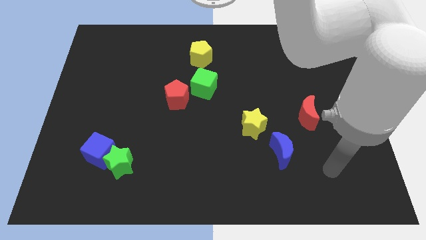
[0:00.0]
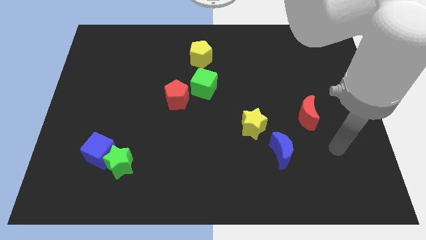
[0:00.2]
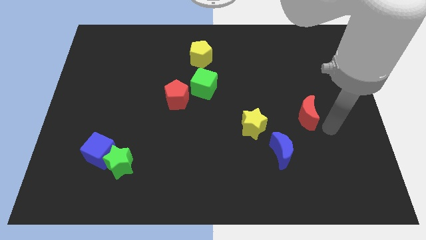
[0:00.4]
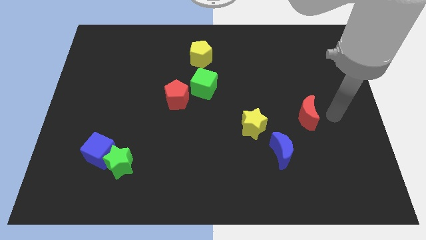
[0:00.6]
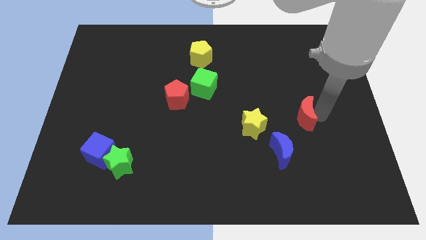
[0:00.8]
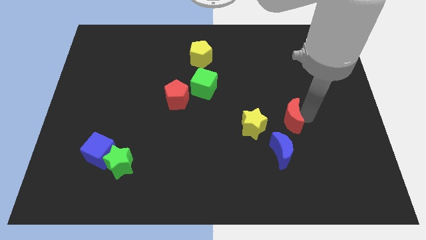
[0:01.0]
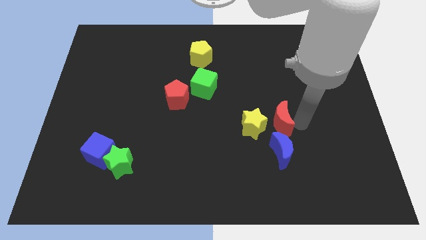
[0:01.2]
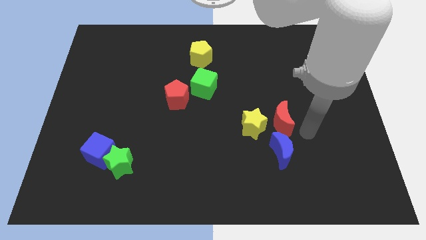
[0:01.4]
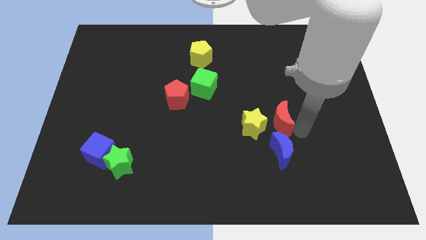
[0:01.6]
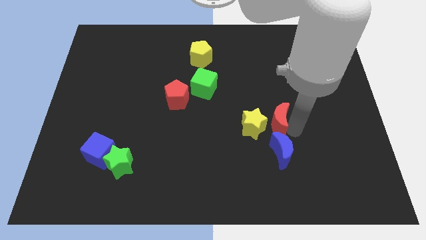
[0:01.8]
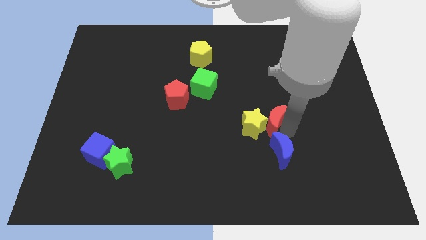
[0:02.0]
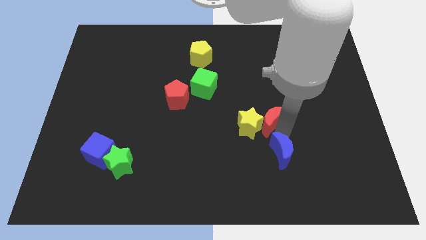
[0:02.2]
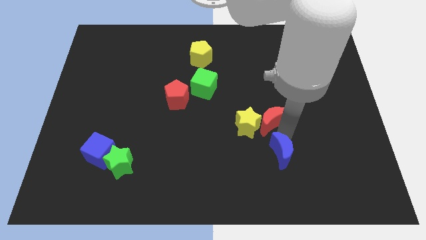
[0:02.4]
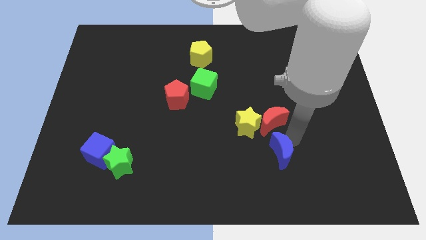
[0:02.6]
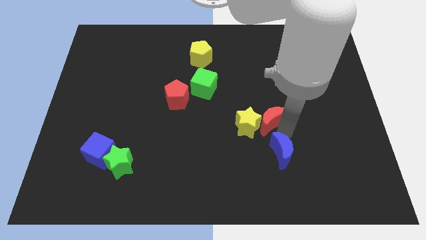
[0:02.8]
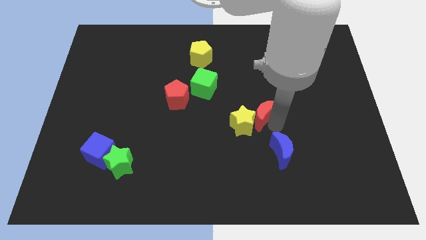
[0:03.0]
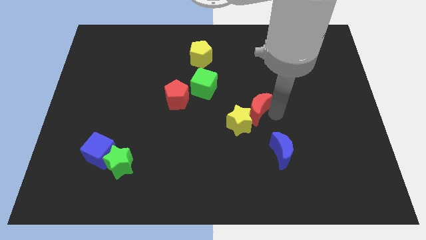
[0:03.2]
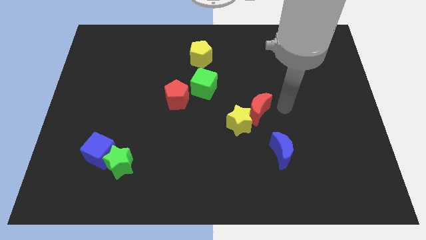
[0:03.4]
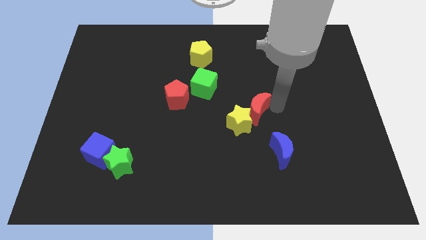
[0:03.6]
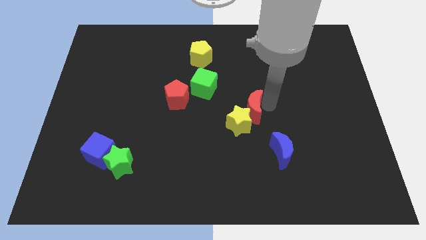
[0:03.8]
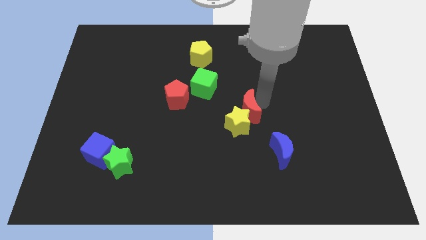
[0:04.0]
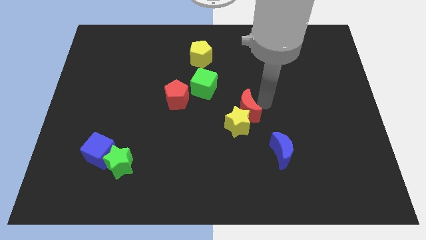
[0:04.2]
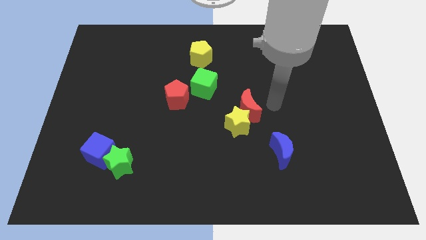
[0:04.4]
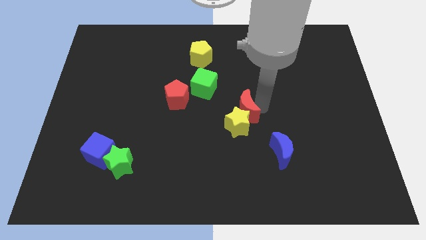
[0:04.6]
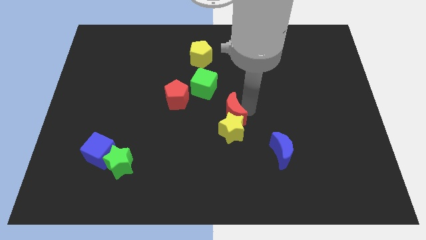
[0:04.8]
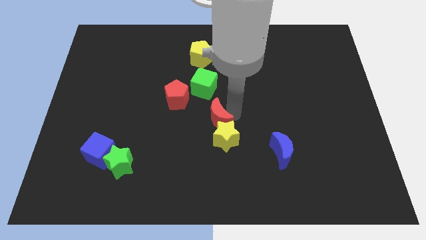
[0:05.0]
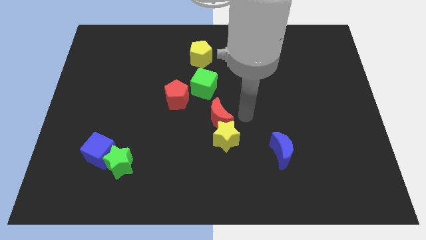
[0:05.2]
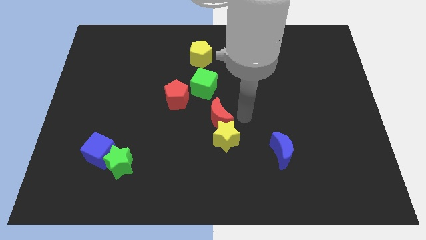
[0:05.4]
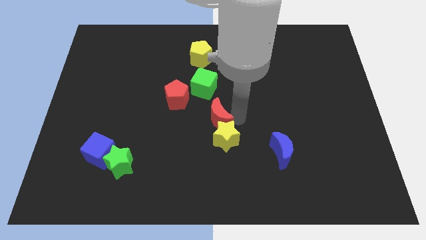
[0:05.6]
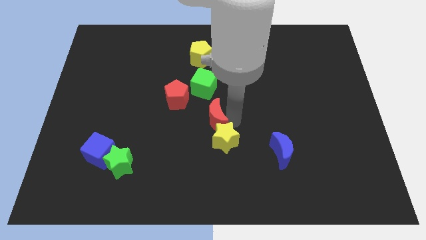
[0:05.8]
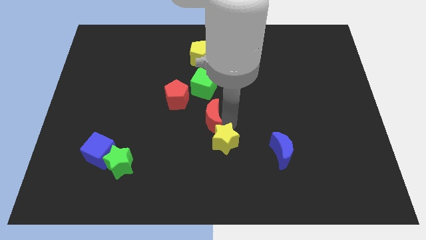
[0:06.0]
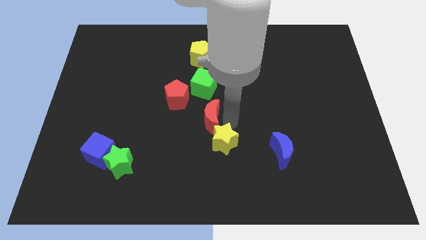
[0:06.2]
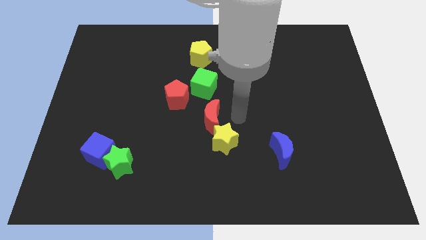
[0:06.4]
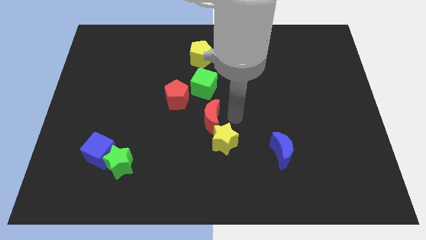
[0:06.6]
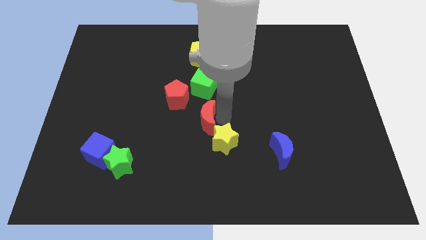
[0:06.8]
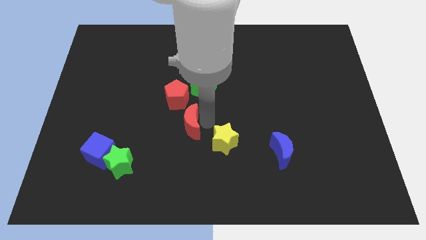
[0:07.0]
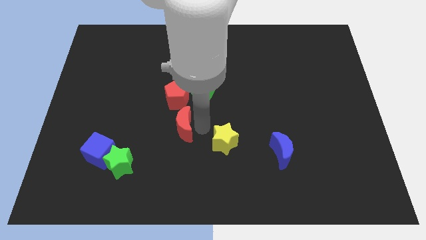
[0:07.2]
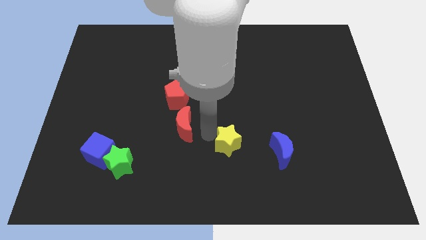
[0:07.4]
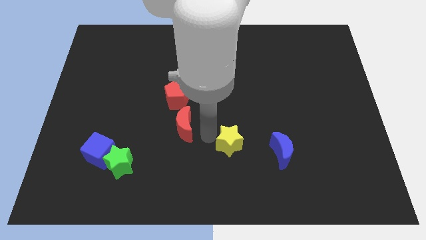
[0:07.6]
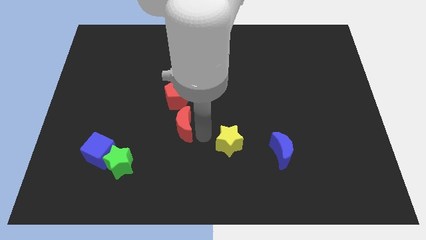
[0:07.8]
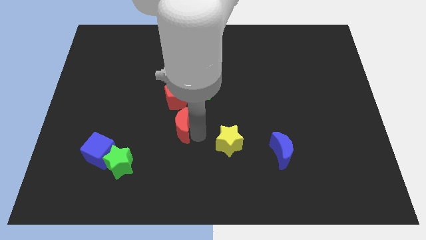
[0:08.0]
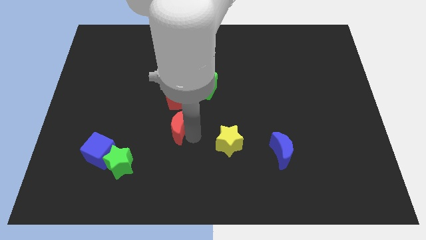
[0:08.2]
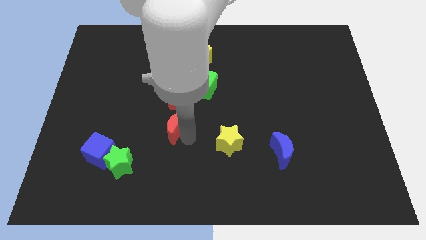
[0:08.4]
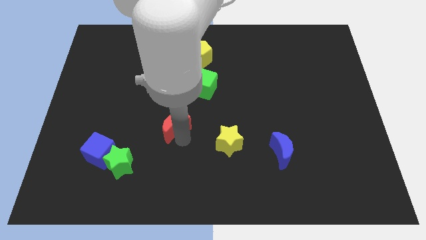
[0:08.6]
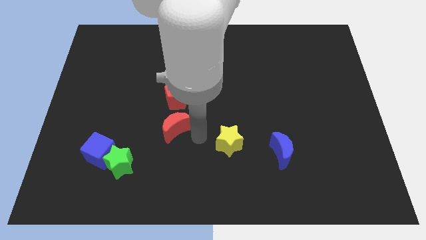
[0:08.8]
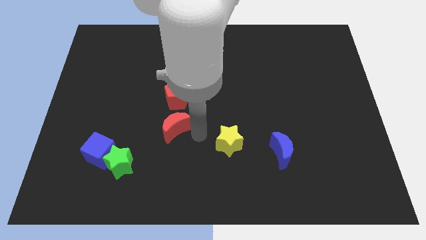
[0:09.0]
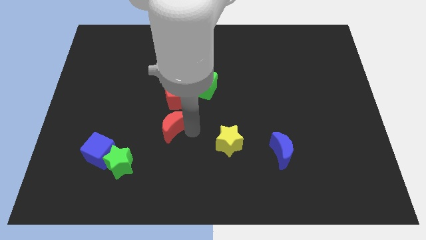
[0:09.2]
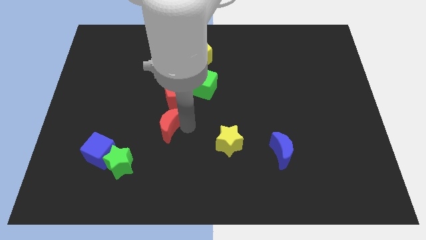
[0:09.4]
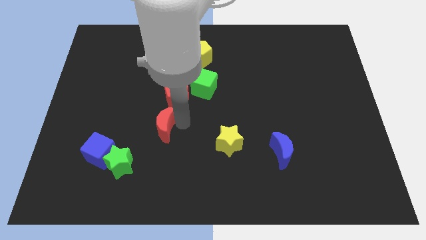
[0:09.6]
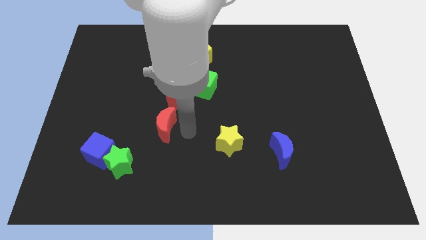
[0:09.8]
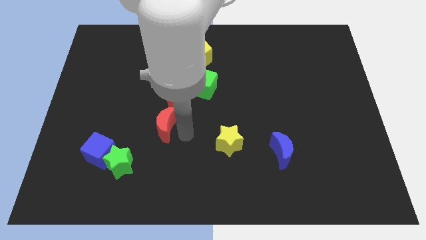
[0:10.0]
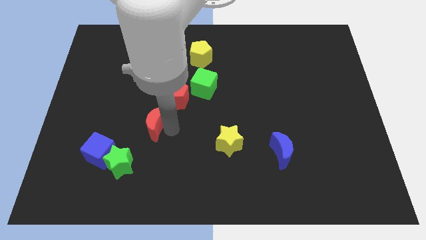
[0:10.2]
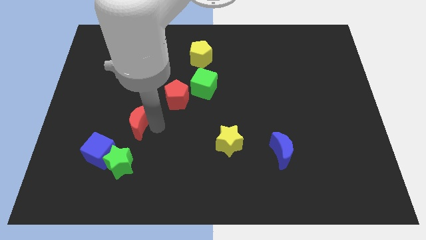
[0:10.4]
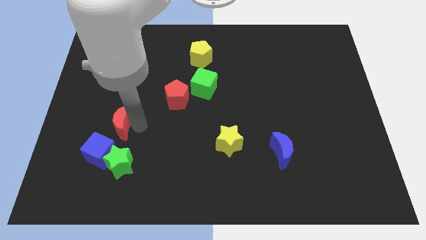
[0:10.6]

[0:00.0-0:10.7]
move the red moon to the top of the blue cube

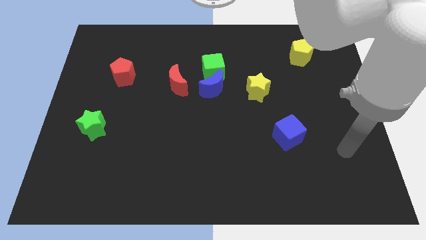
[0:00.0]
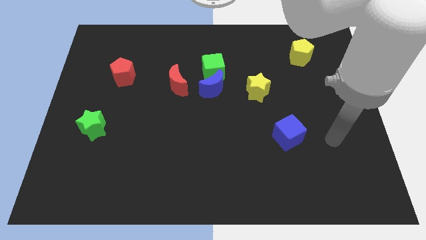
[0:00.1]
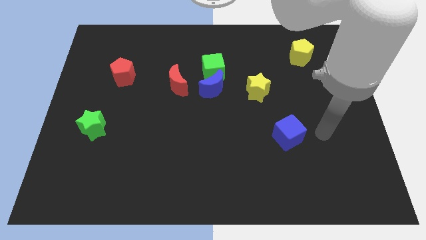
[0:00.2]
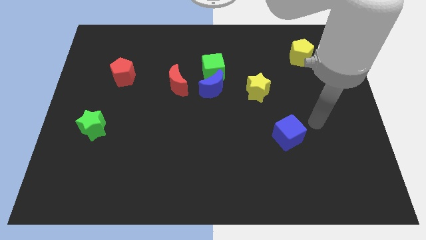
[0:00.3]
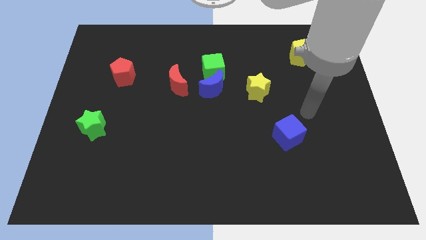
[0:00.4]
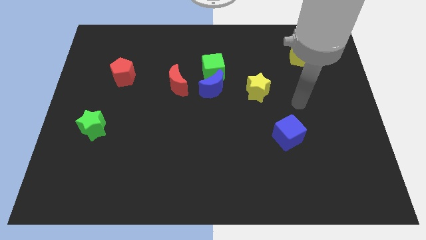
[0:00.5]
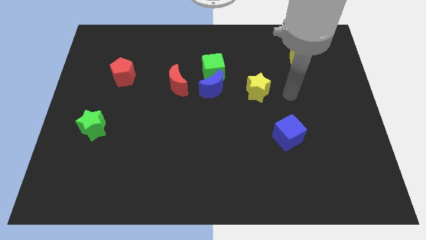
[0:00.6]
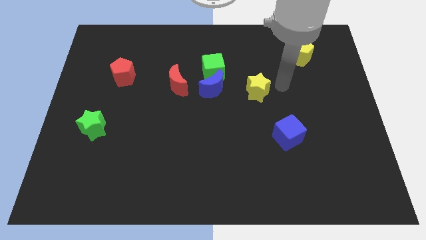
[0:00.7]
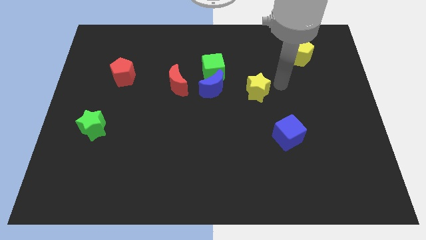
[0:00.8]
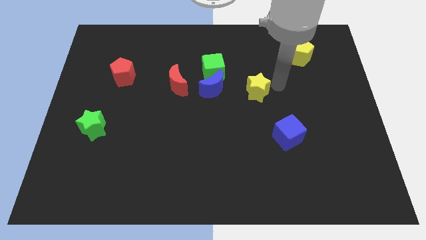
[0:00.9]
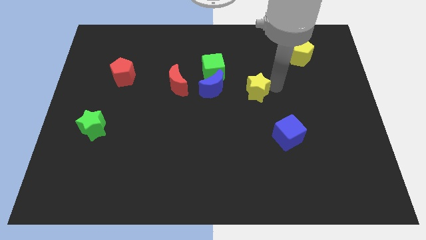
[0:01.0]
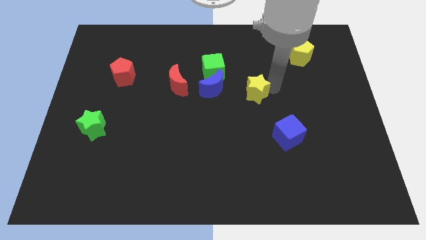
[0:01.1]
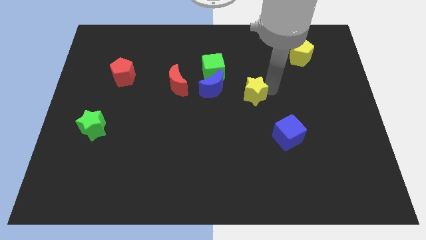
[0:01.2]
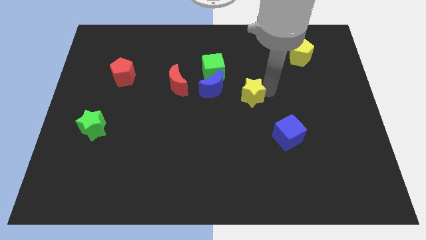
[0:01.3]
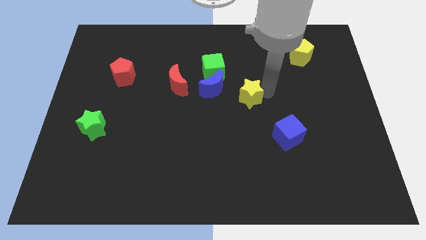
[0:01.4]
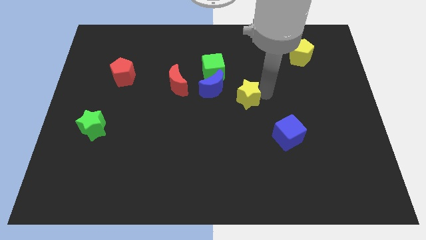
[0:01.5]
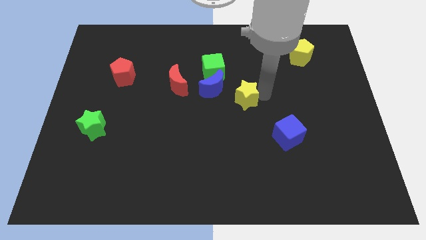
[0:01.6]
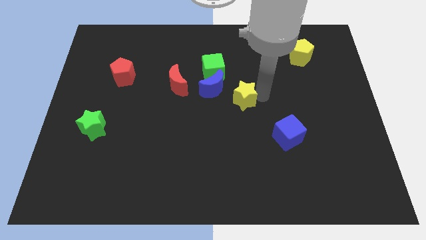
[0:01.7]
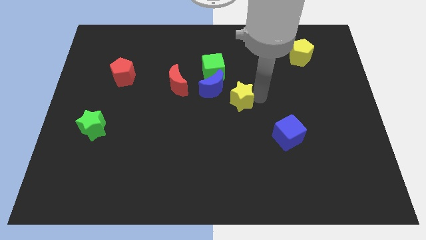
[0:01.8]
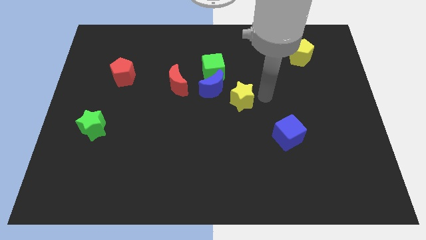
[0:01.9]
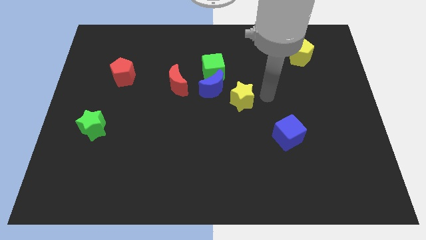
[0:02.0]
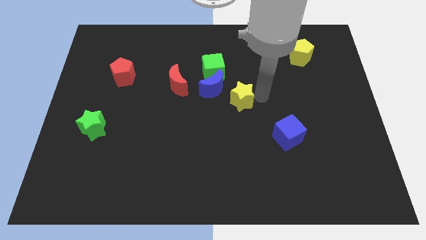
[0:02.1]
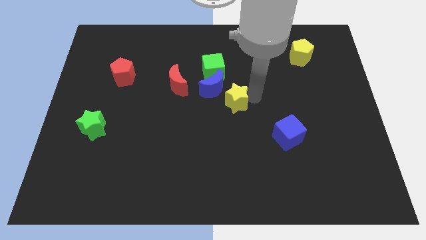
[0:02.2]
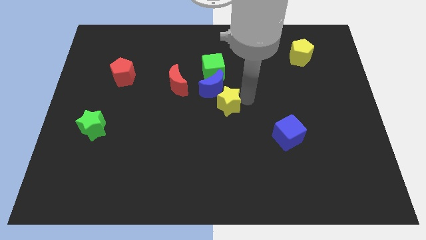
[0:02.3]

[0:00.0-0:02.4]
push the yellow star to the bottom side of the green cube
